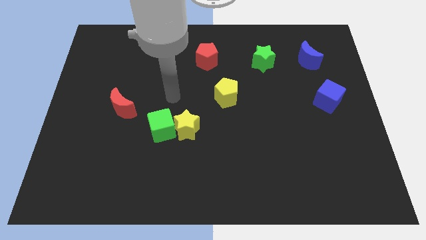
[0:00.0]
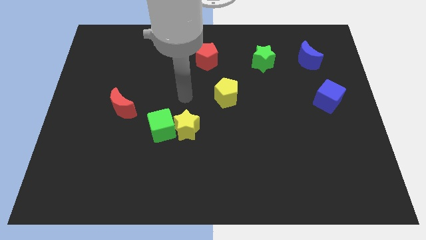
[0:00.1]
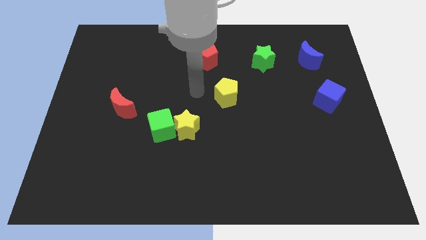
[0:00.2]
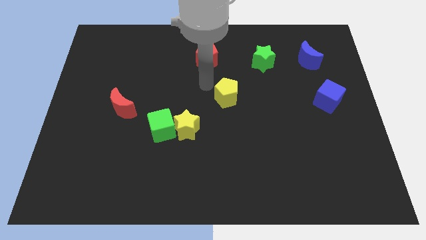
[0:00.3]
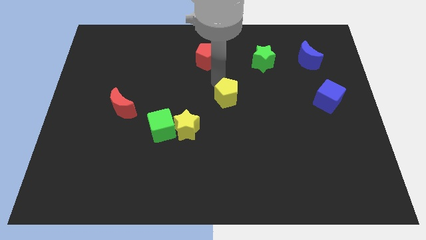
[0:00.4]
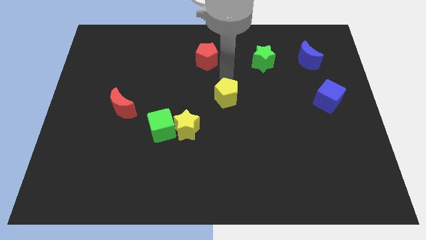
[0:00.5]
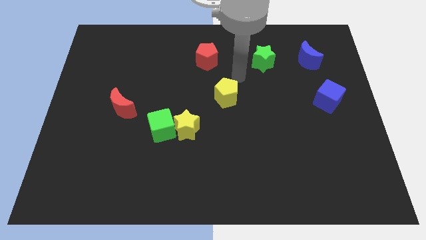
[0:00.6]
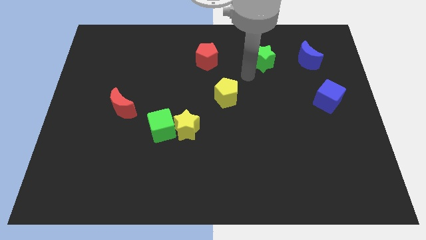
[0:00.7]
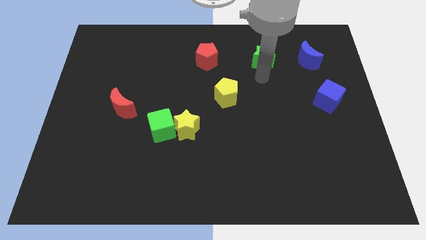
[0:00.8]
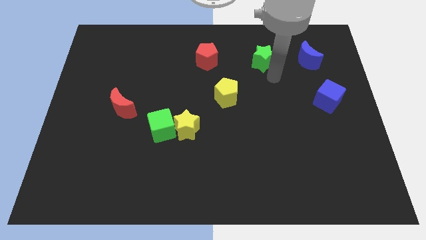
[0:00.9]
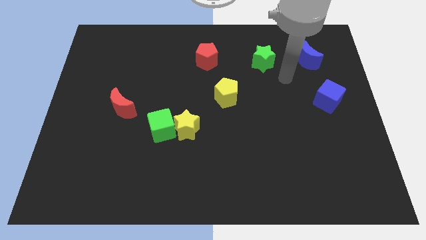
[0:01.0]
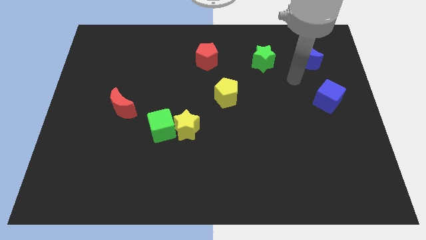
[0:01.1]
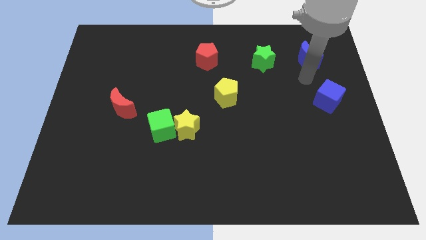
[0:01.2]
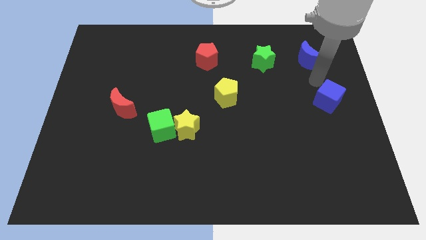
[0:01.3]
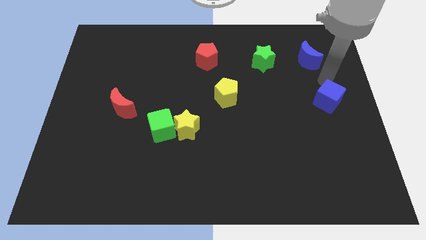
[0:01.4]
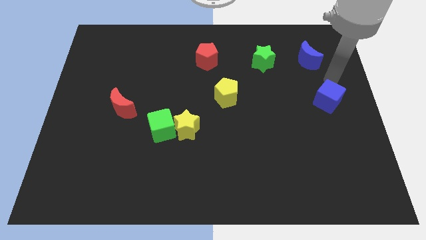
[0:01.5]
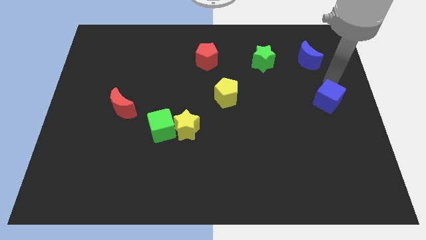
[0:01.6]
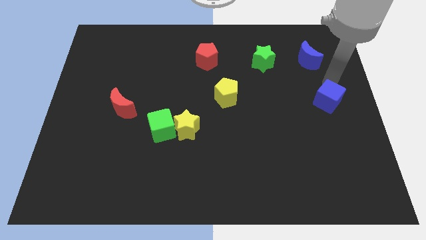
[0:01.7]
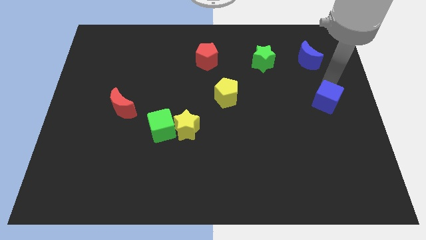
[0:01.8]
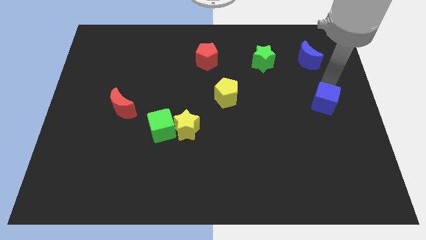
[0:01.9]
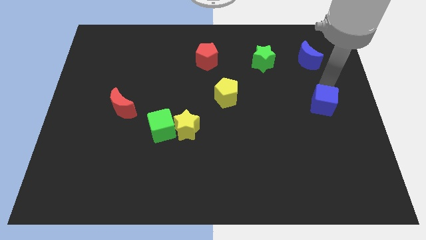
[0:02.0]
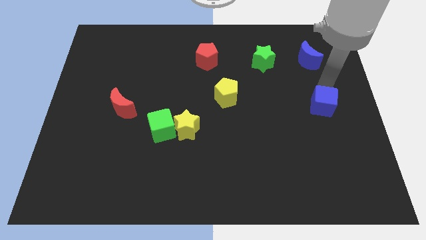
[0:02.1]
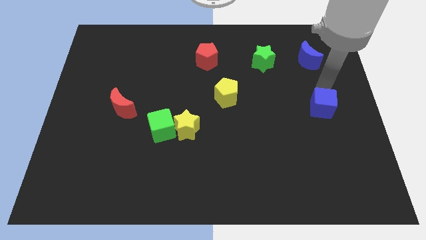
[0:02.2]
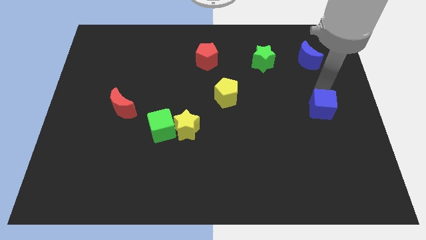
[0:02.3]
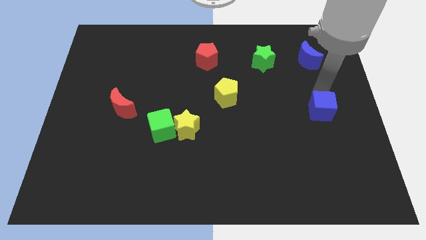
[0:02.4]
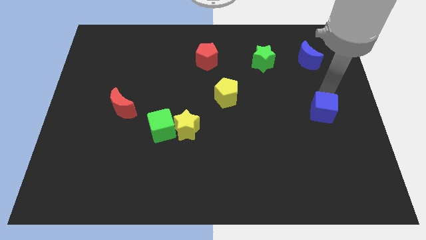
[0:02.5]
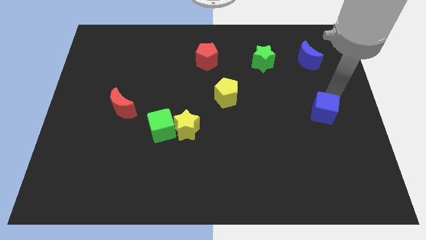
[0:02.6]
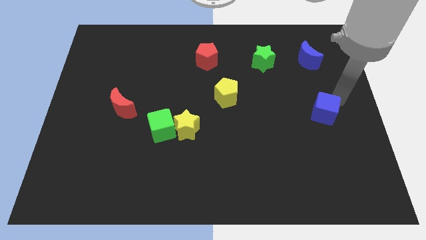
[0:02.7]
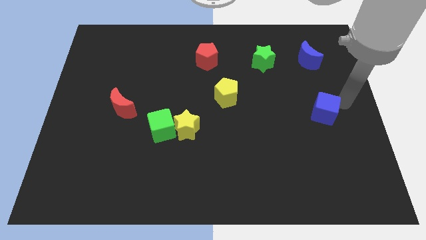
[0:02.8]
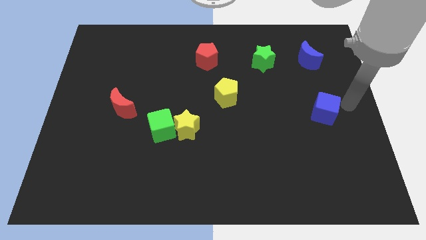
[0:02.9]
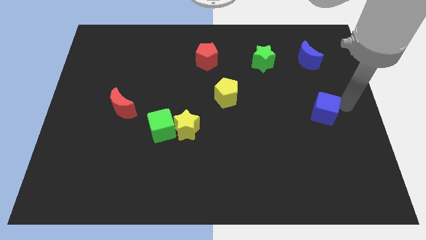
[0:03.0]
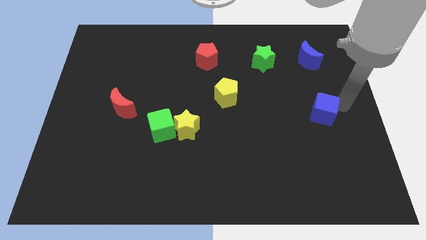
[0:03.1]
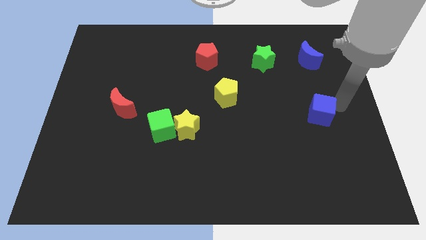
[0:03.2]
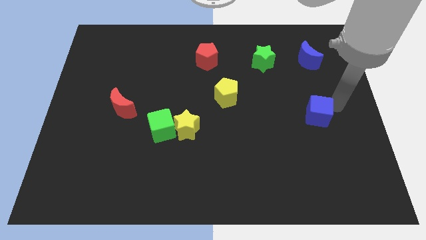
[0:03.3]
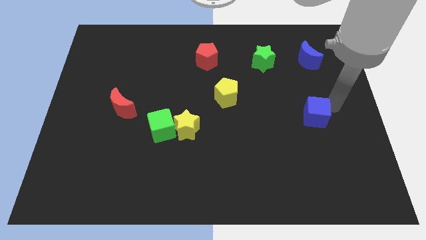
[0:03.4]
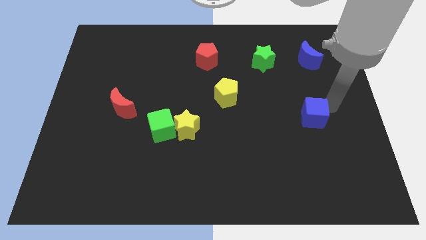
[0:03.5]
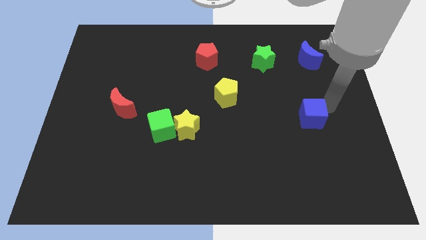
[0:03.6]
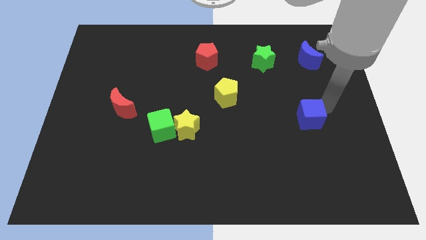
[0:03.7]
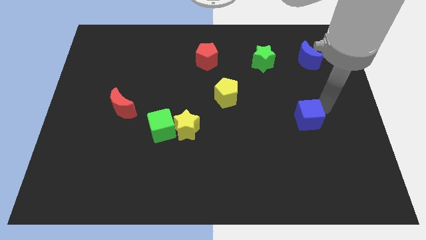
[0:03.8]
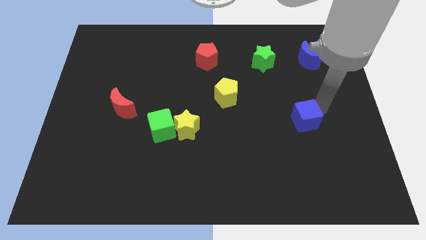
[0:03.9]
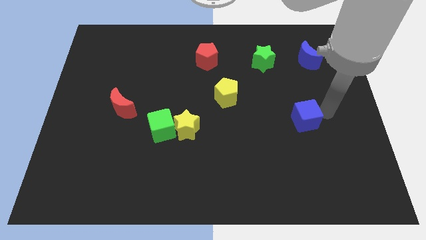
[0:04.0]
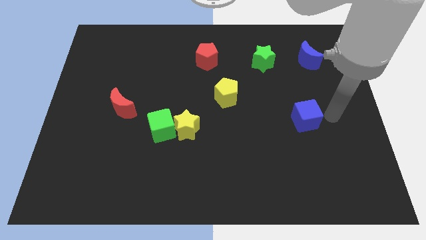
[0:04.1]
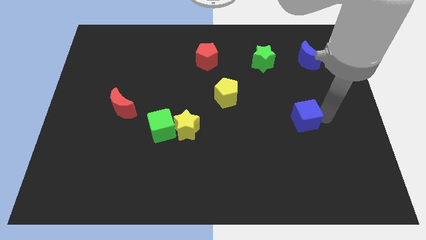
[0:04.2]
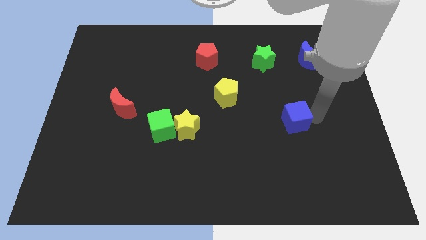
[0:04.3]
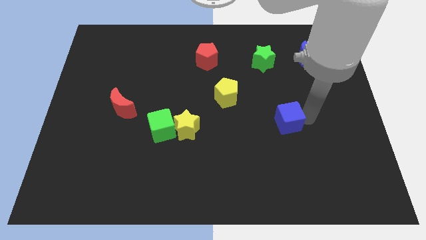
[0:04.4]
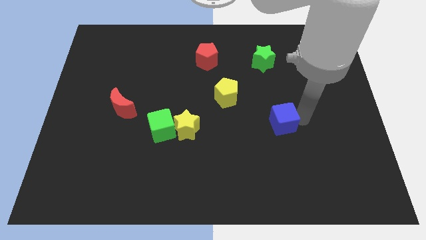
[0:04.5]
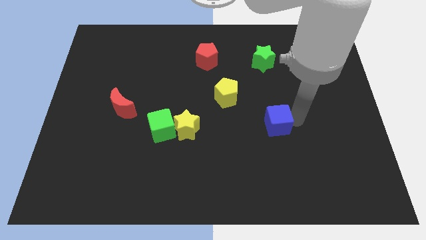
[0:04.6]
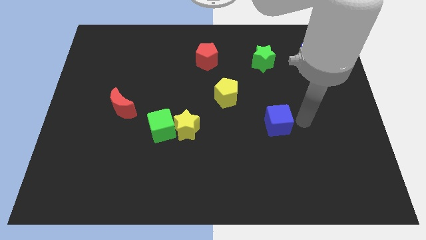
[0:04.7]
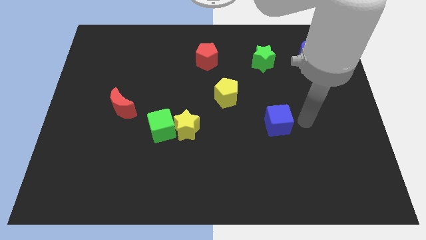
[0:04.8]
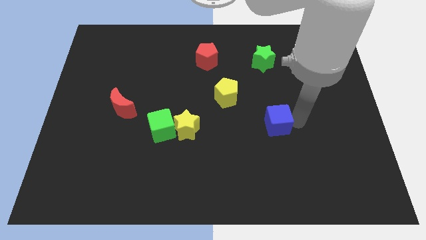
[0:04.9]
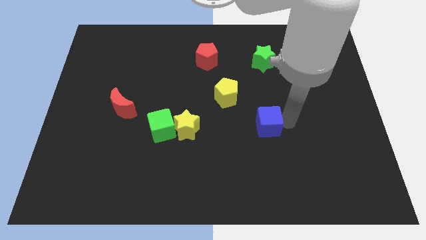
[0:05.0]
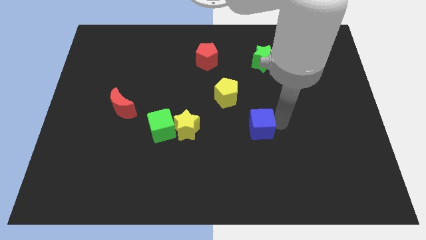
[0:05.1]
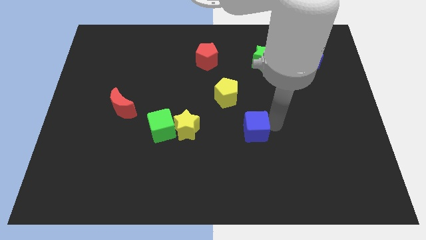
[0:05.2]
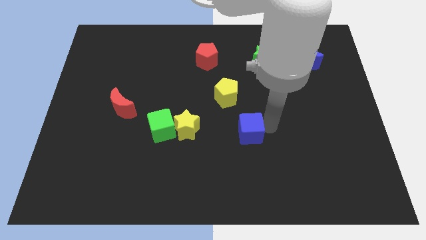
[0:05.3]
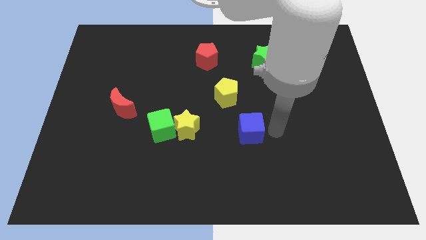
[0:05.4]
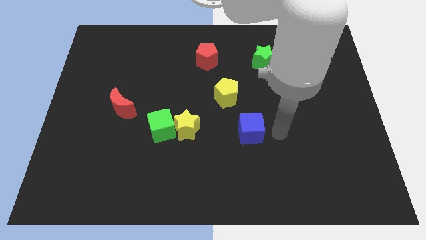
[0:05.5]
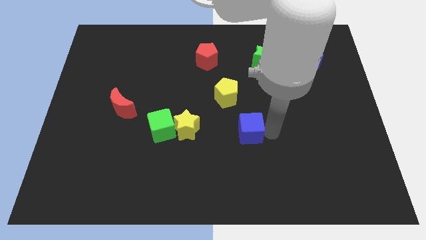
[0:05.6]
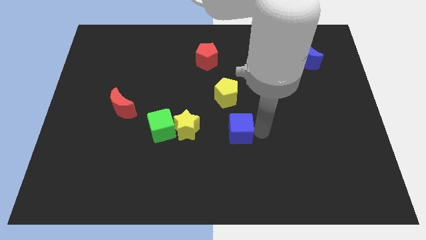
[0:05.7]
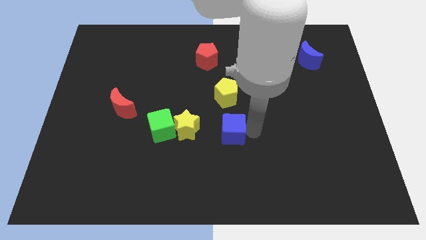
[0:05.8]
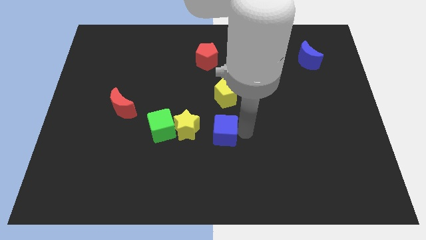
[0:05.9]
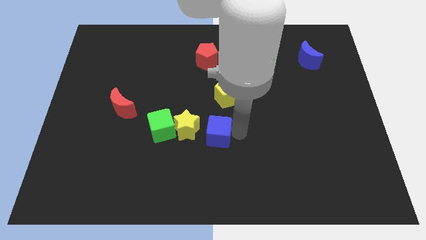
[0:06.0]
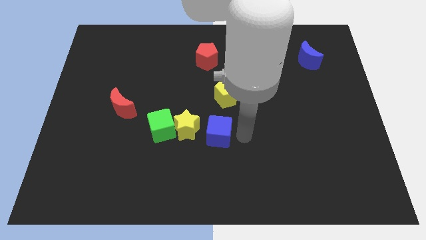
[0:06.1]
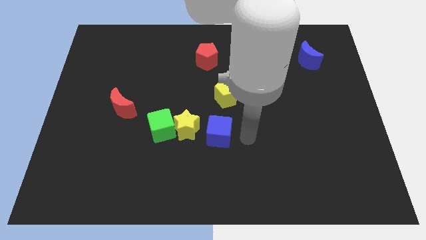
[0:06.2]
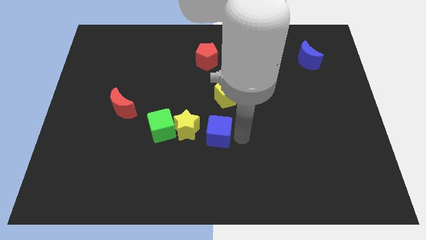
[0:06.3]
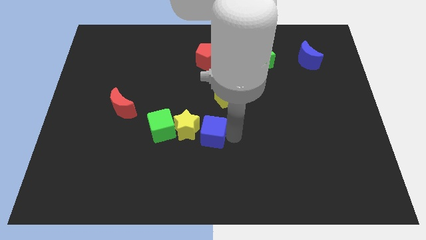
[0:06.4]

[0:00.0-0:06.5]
put the blue cube to the yellow star

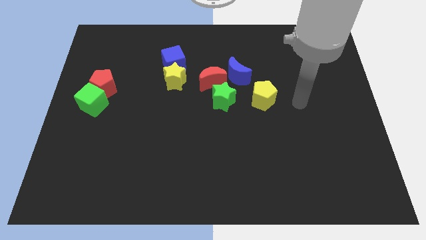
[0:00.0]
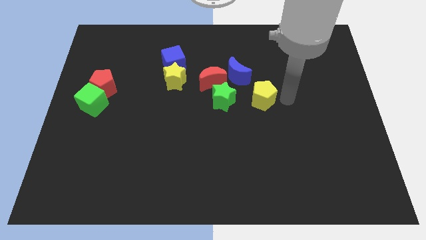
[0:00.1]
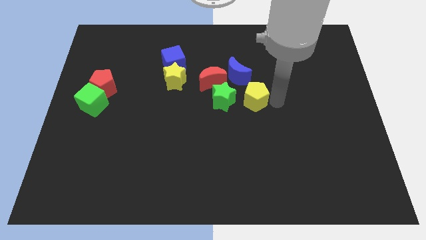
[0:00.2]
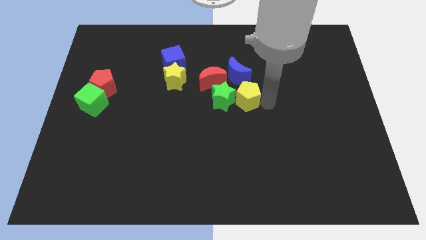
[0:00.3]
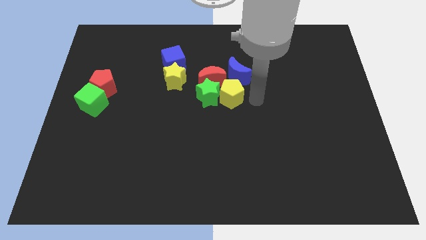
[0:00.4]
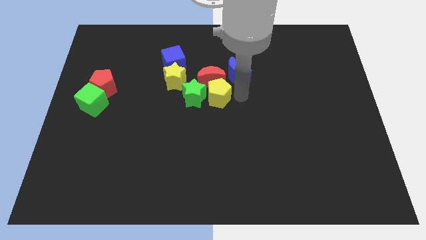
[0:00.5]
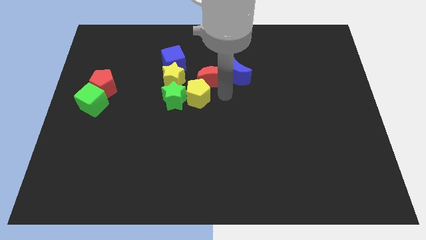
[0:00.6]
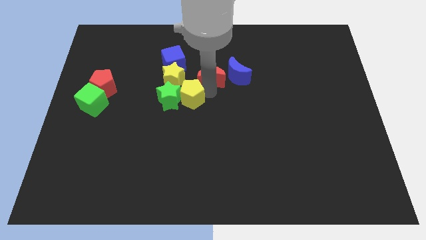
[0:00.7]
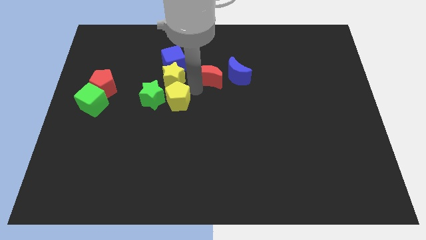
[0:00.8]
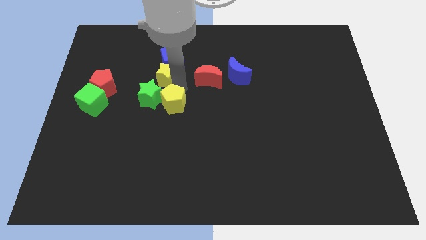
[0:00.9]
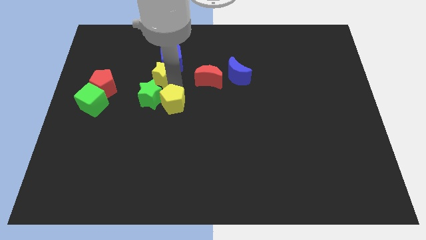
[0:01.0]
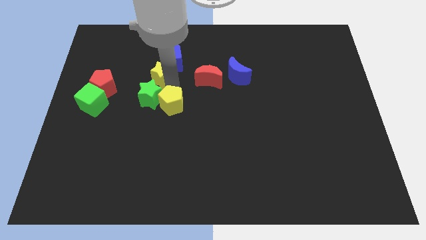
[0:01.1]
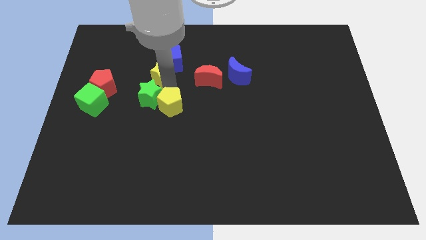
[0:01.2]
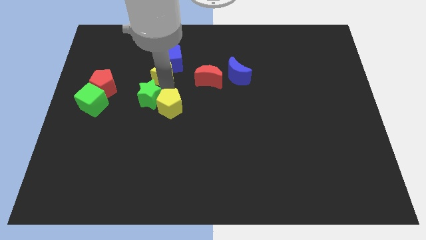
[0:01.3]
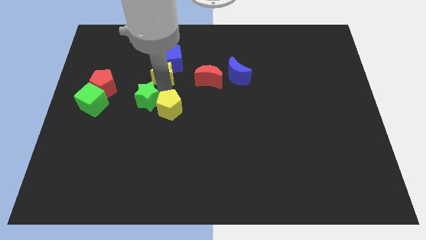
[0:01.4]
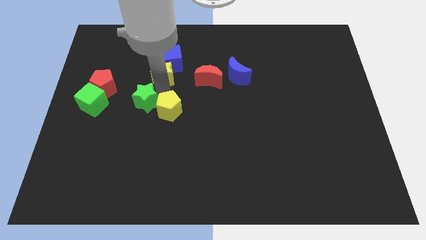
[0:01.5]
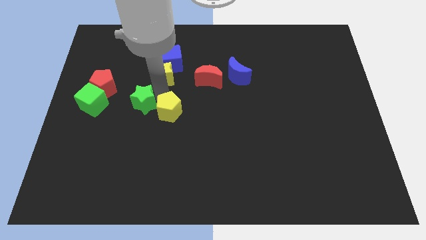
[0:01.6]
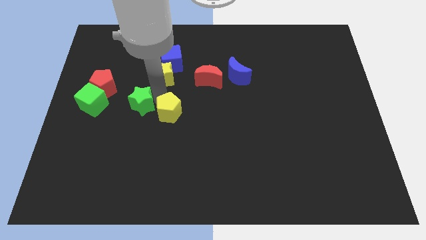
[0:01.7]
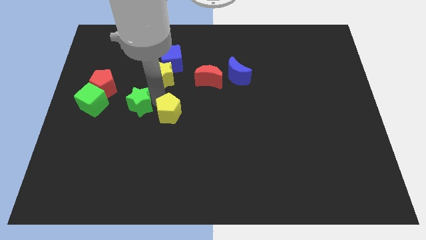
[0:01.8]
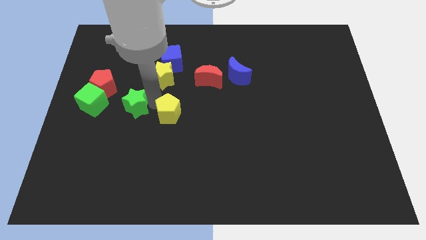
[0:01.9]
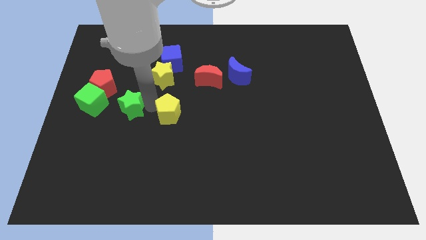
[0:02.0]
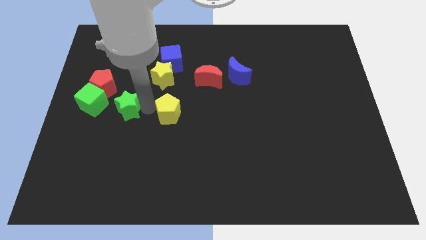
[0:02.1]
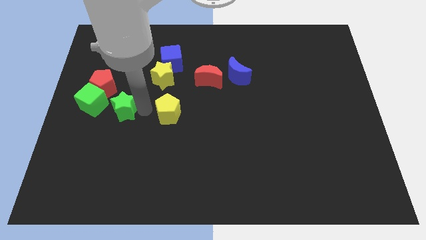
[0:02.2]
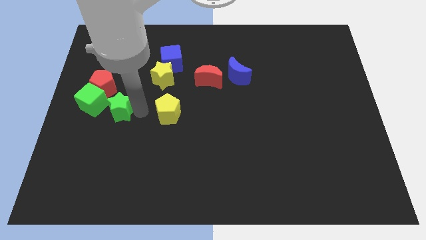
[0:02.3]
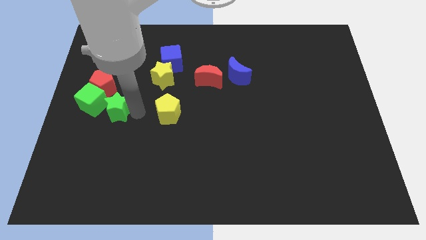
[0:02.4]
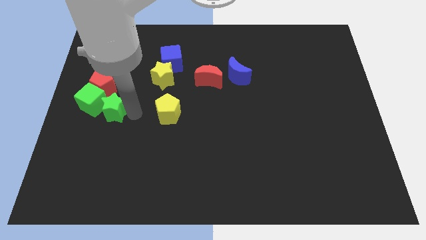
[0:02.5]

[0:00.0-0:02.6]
slide the green star next to the green cube
